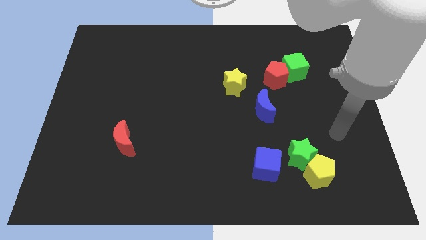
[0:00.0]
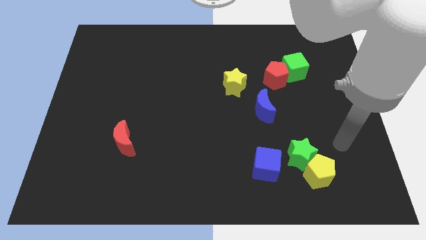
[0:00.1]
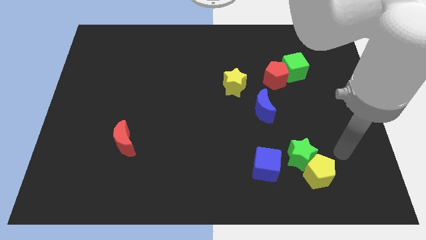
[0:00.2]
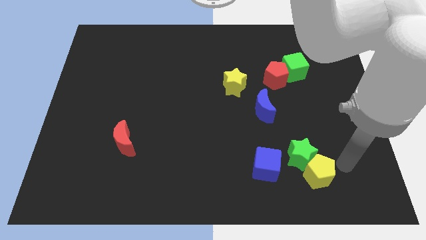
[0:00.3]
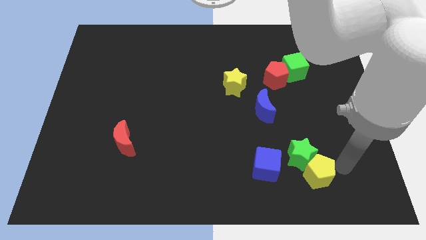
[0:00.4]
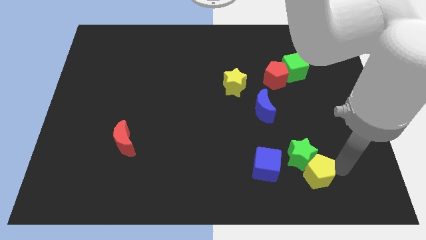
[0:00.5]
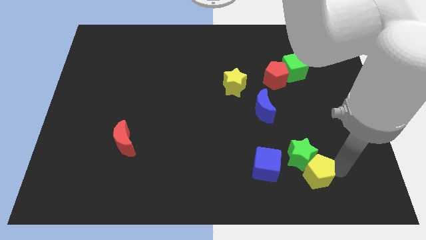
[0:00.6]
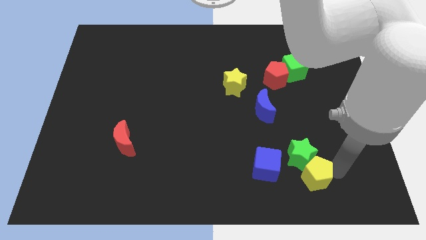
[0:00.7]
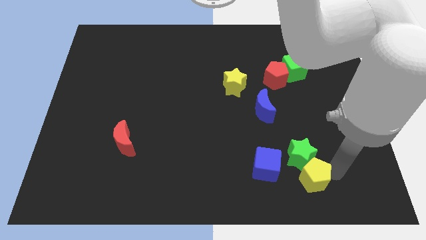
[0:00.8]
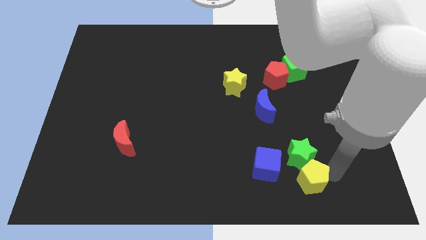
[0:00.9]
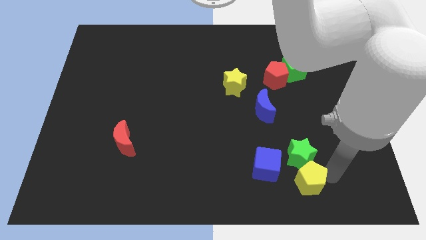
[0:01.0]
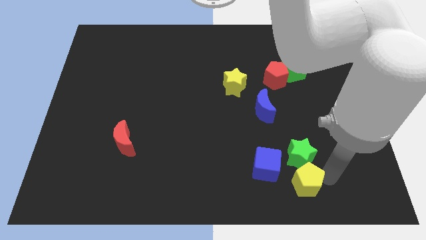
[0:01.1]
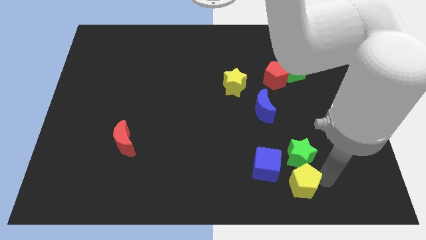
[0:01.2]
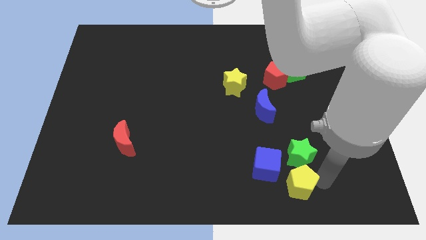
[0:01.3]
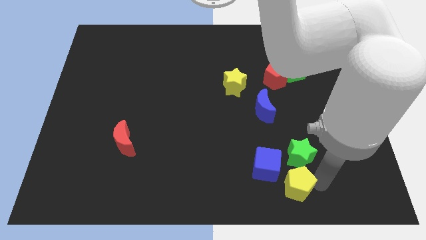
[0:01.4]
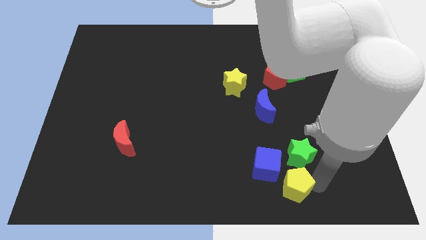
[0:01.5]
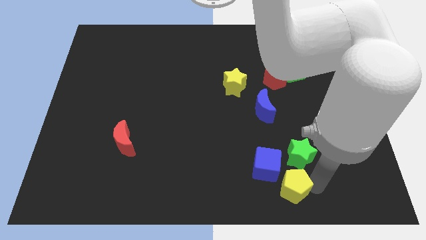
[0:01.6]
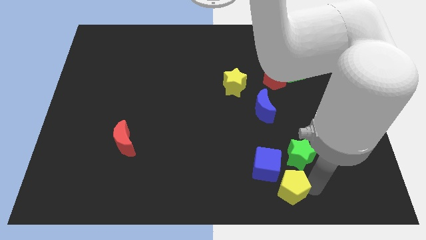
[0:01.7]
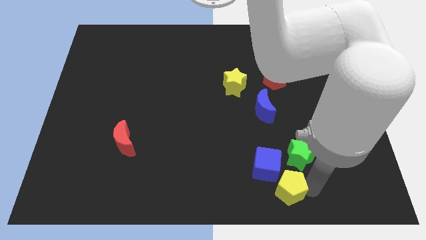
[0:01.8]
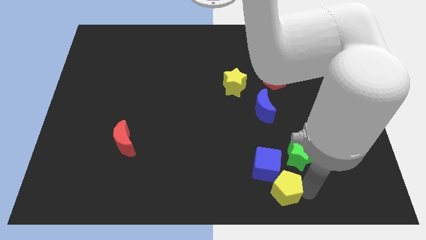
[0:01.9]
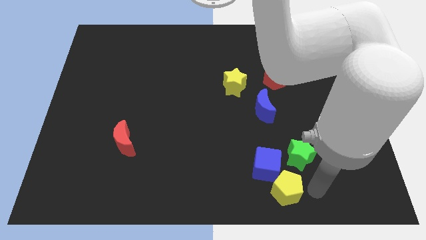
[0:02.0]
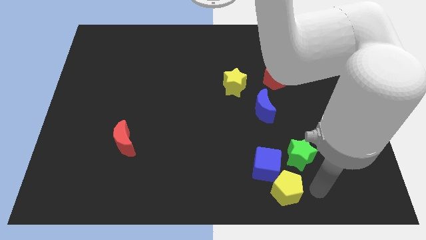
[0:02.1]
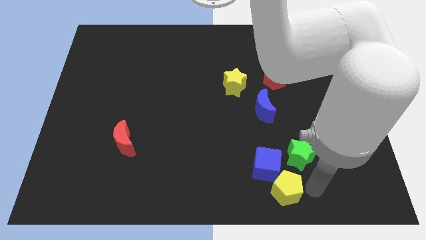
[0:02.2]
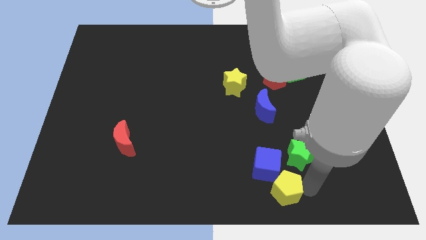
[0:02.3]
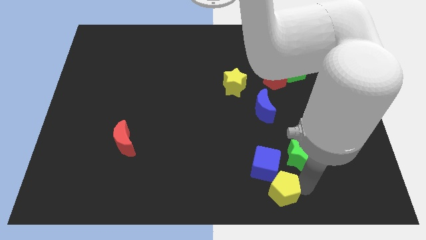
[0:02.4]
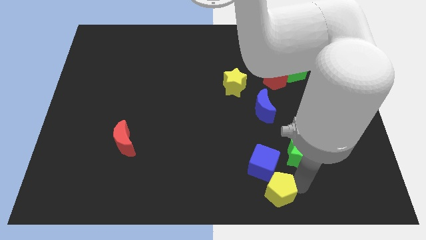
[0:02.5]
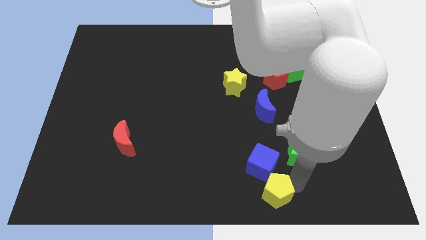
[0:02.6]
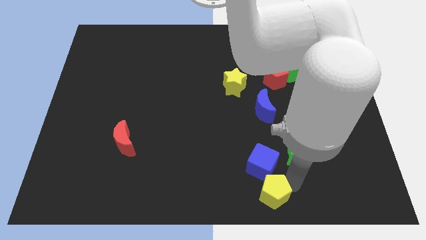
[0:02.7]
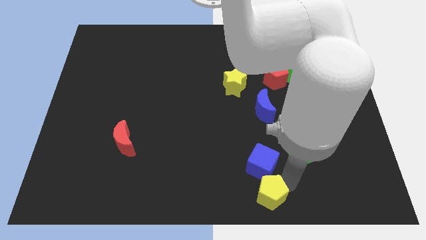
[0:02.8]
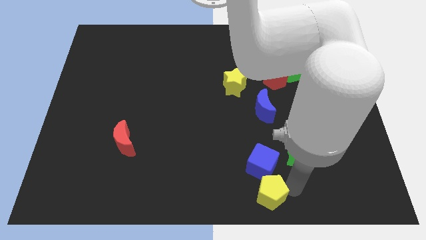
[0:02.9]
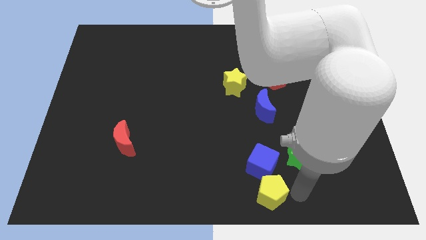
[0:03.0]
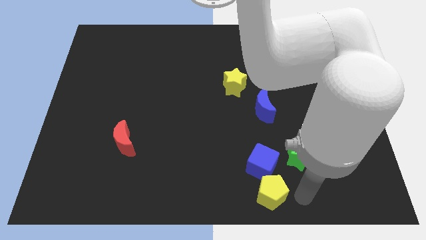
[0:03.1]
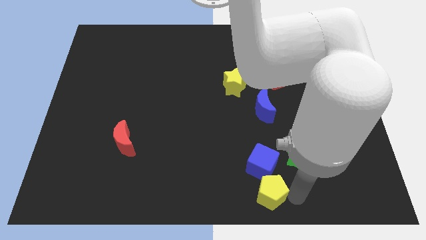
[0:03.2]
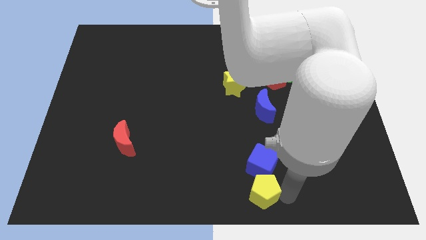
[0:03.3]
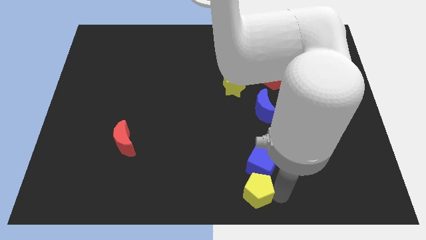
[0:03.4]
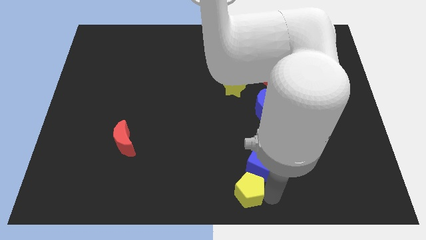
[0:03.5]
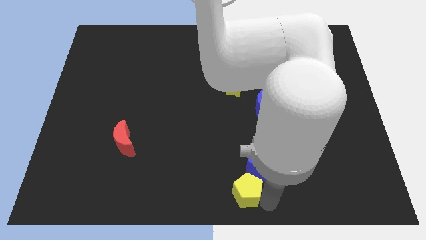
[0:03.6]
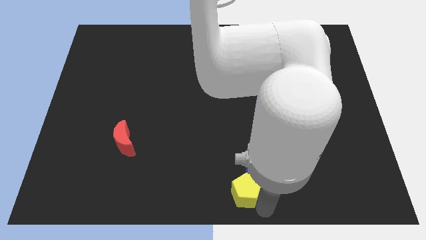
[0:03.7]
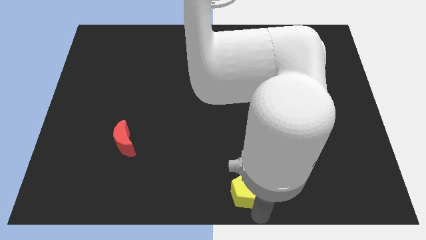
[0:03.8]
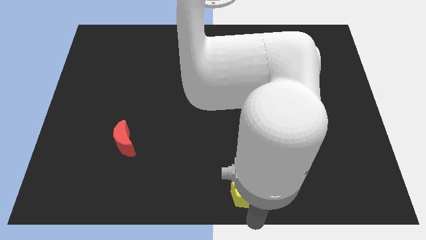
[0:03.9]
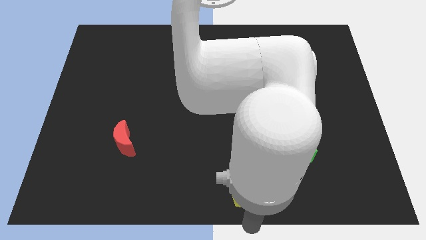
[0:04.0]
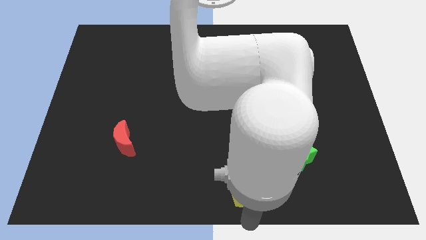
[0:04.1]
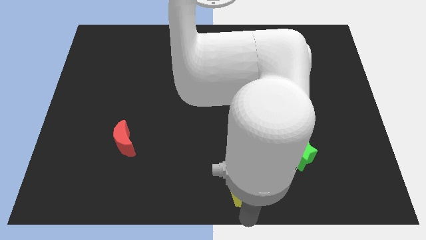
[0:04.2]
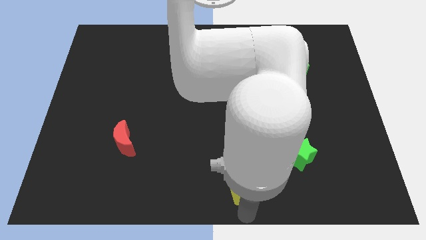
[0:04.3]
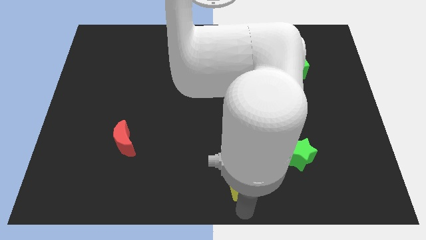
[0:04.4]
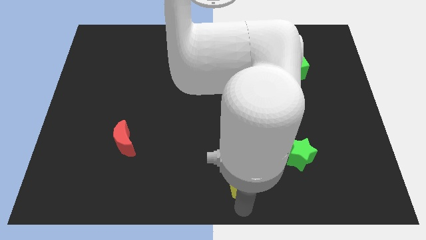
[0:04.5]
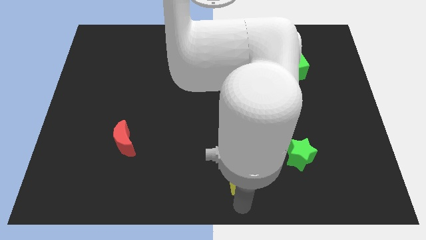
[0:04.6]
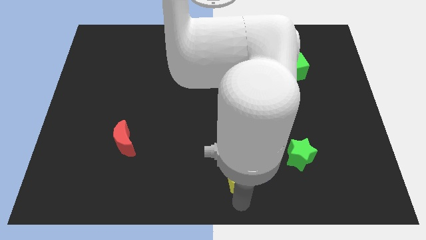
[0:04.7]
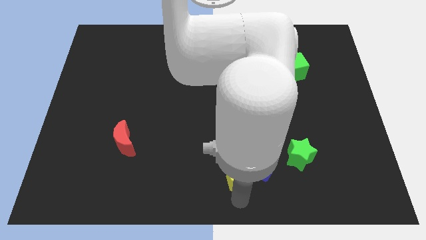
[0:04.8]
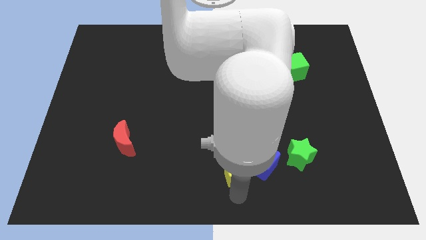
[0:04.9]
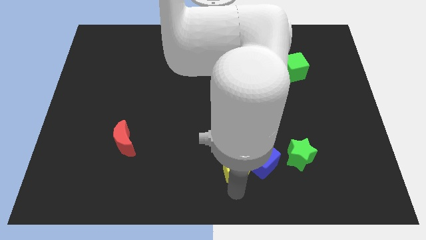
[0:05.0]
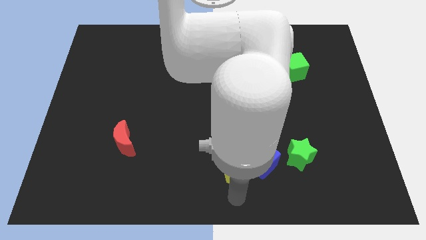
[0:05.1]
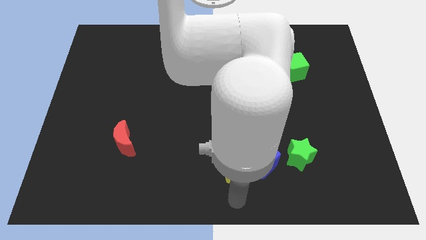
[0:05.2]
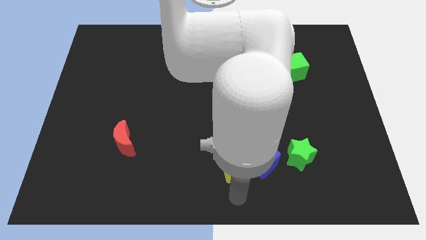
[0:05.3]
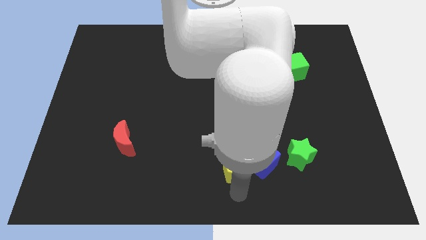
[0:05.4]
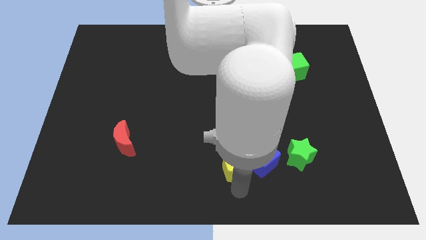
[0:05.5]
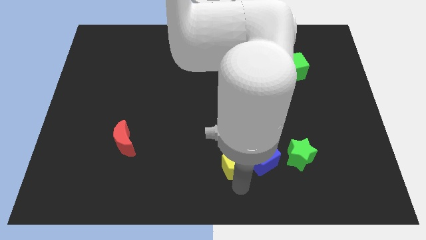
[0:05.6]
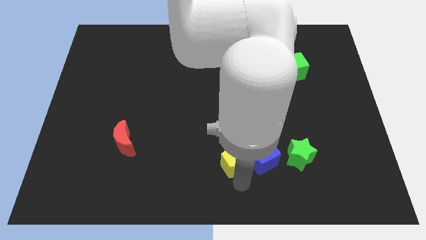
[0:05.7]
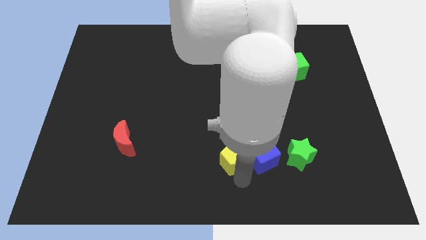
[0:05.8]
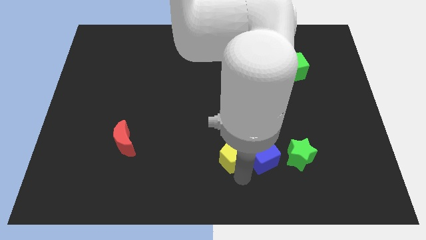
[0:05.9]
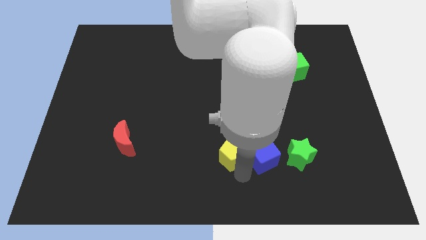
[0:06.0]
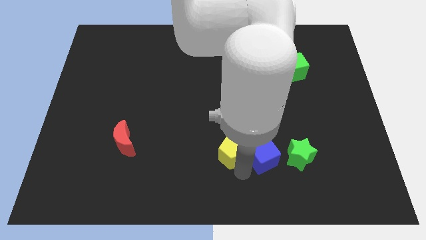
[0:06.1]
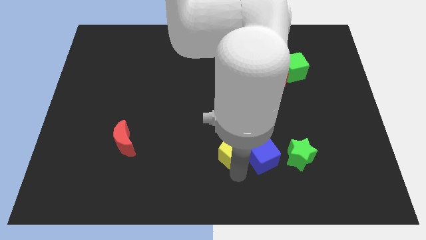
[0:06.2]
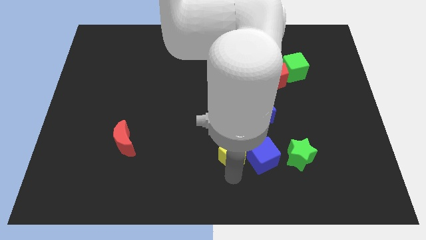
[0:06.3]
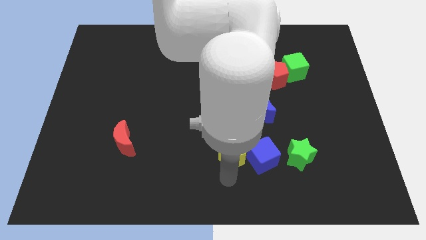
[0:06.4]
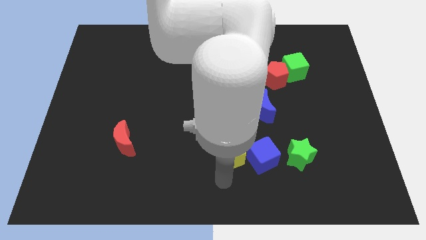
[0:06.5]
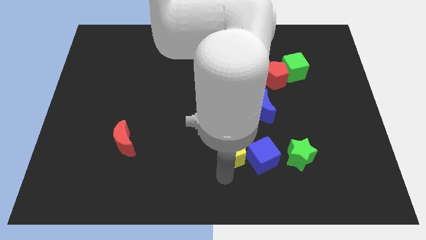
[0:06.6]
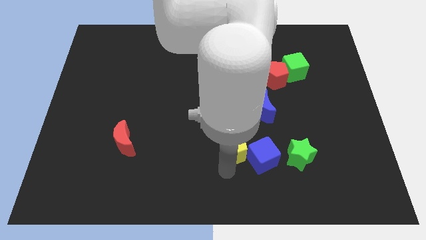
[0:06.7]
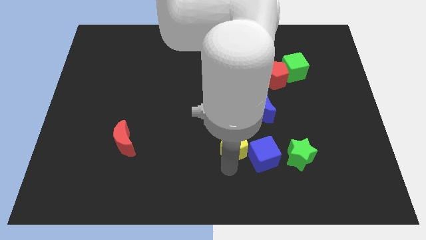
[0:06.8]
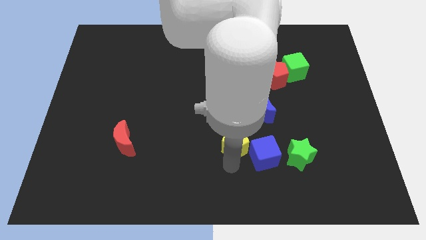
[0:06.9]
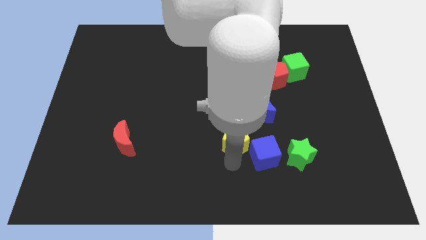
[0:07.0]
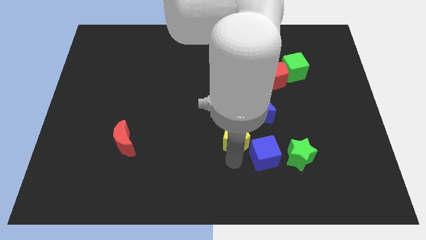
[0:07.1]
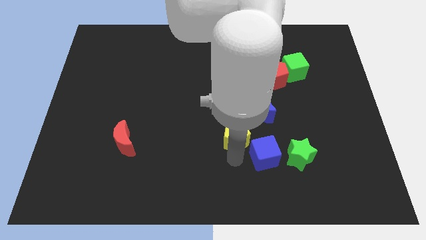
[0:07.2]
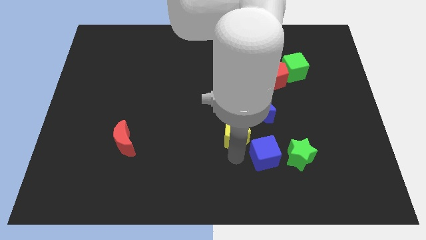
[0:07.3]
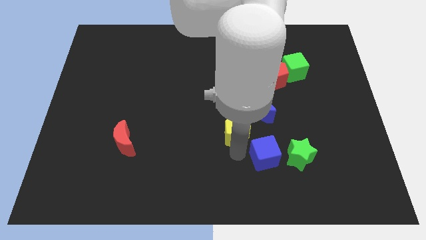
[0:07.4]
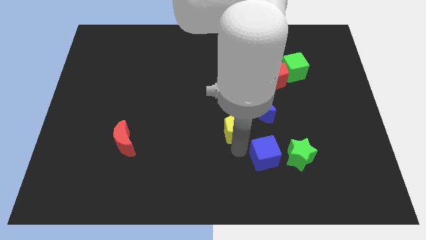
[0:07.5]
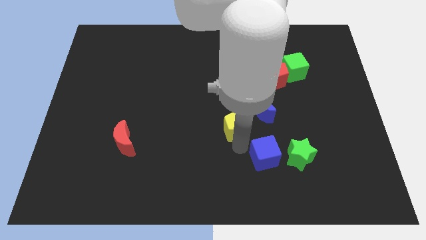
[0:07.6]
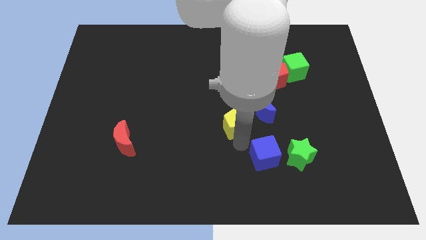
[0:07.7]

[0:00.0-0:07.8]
slide the yellow pentagon diagonally upwards and to the left

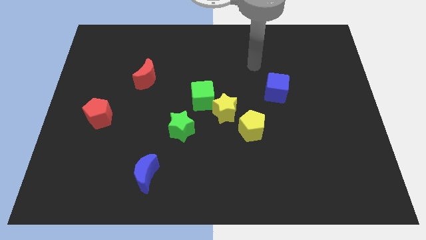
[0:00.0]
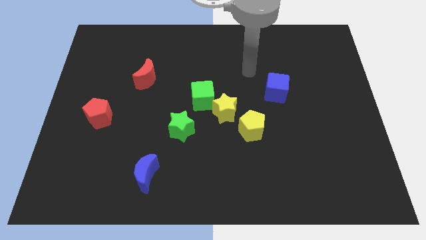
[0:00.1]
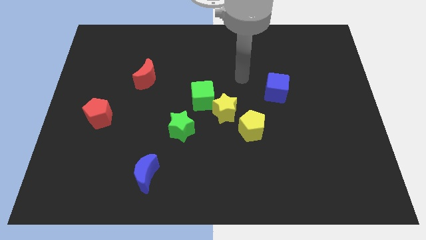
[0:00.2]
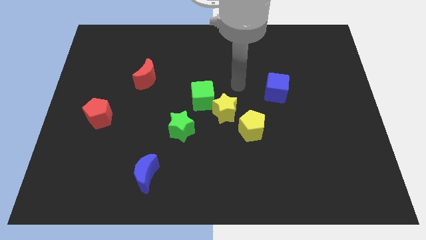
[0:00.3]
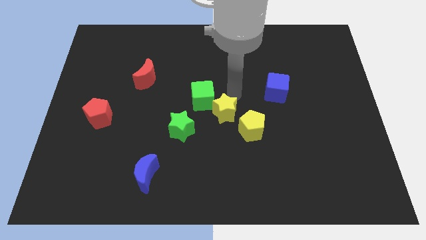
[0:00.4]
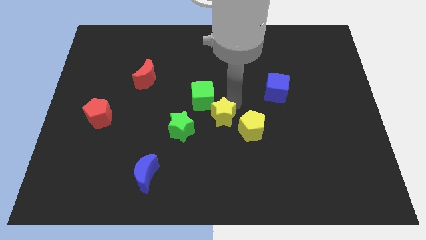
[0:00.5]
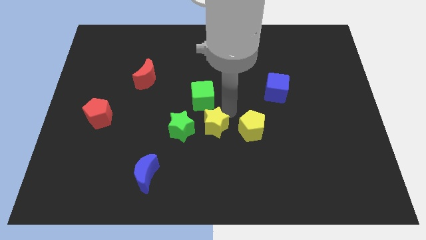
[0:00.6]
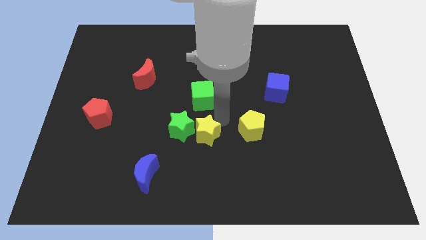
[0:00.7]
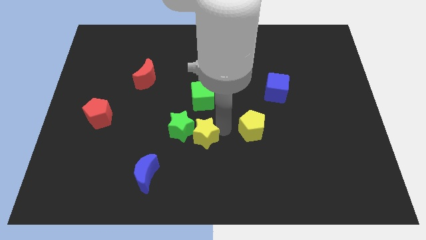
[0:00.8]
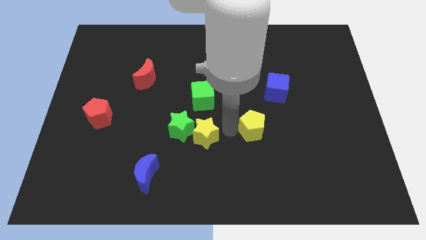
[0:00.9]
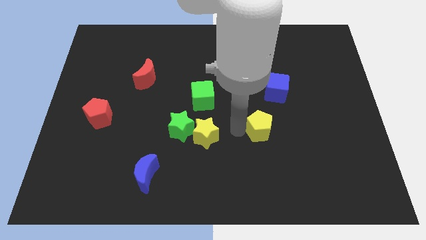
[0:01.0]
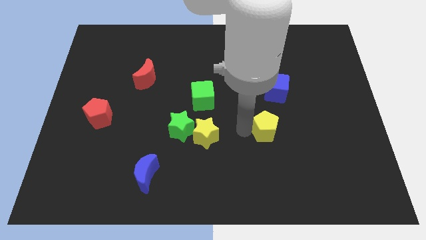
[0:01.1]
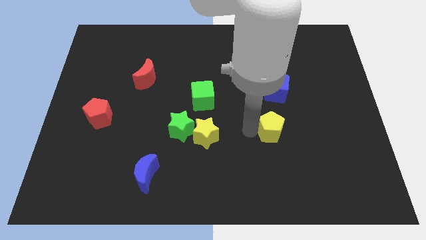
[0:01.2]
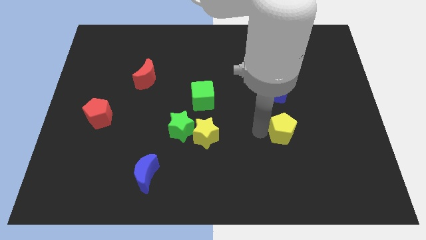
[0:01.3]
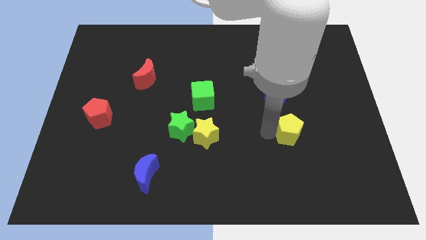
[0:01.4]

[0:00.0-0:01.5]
slightly slide the yellow pentagon right
